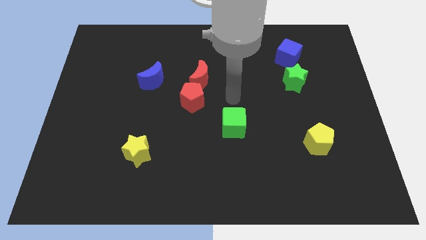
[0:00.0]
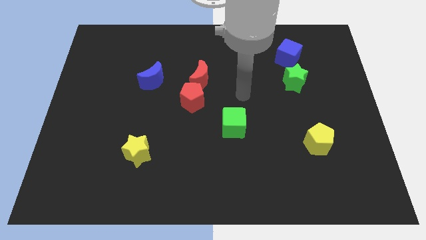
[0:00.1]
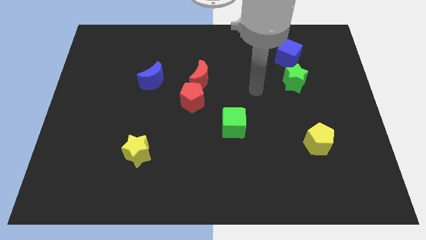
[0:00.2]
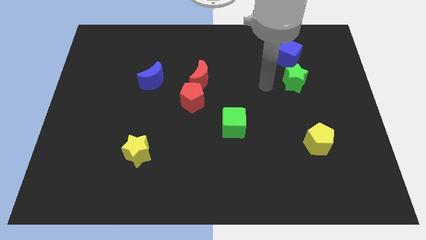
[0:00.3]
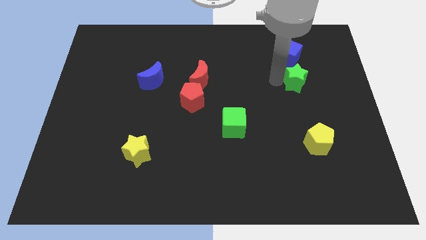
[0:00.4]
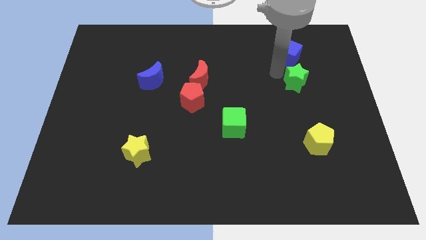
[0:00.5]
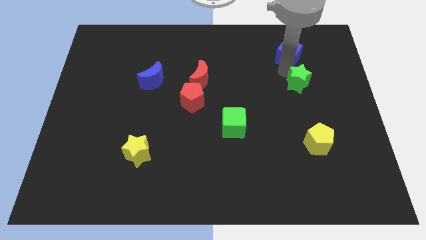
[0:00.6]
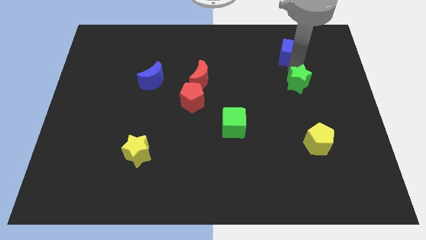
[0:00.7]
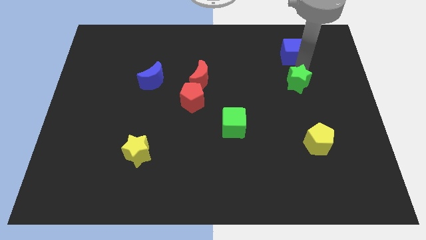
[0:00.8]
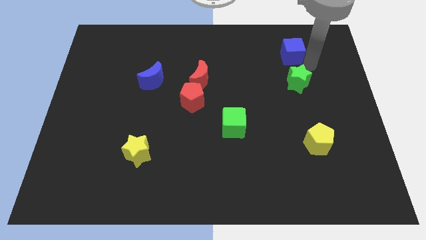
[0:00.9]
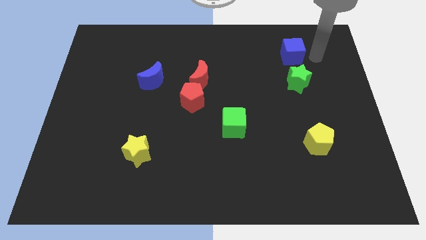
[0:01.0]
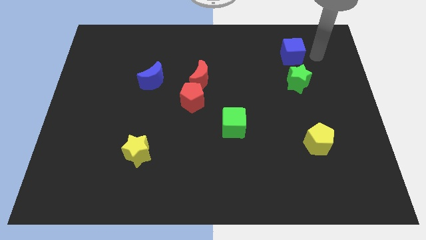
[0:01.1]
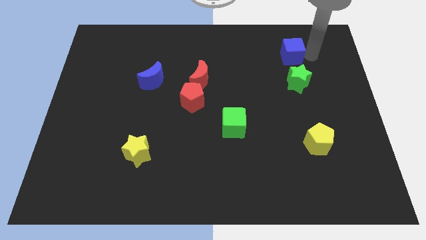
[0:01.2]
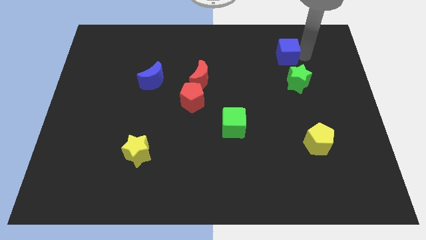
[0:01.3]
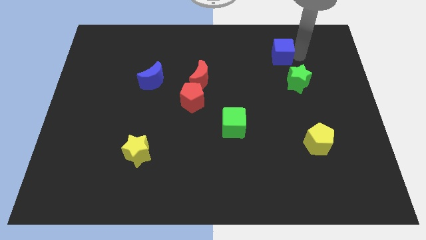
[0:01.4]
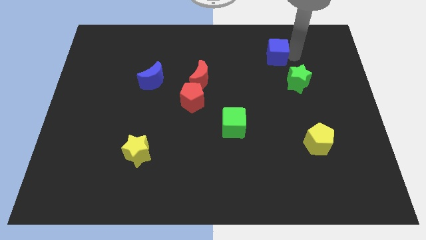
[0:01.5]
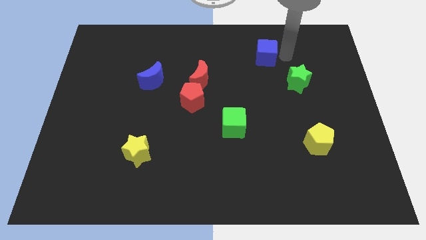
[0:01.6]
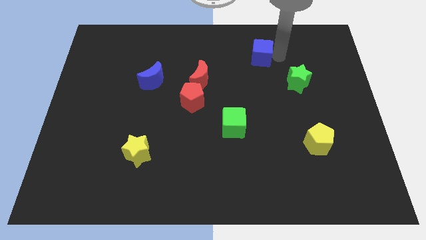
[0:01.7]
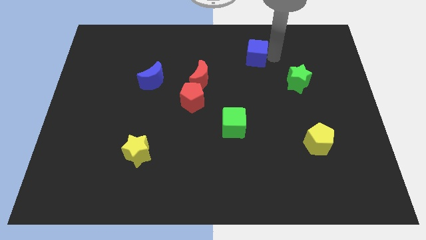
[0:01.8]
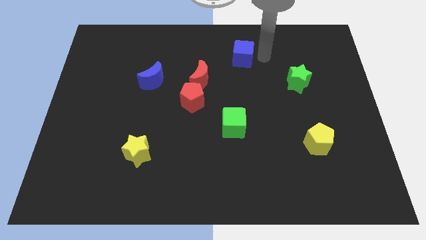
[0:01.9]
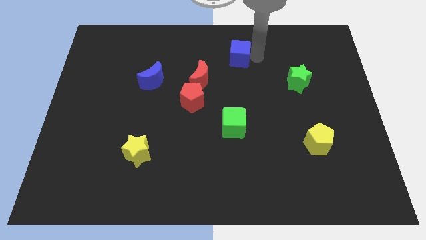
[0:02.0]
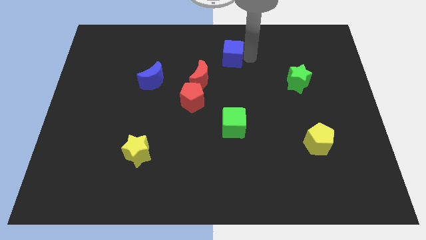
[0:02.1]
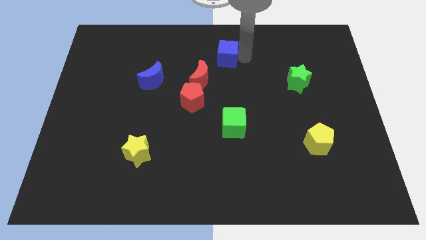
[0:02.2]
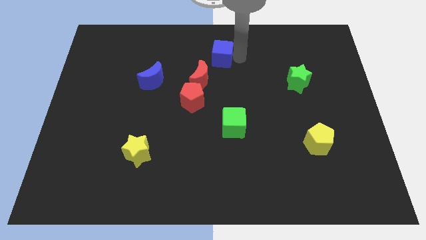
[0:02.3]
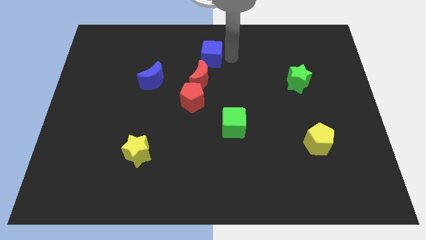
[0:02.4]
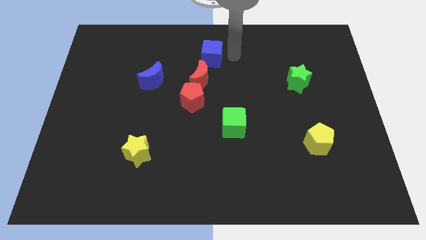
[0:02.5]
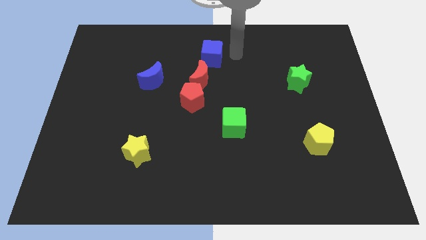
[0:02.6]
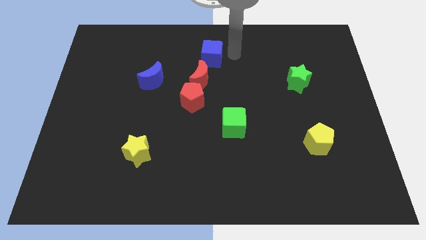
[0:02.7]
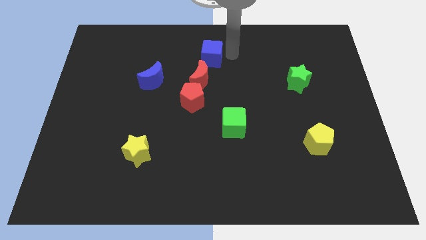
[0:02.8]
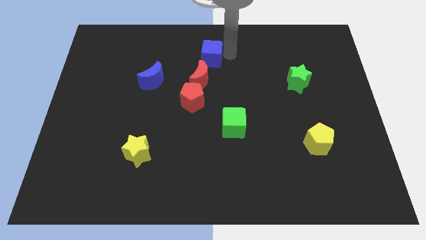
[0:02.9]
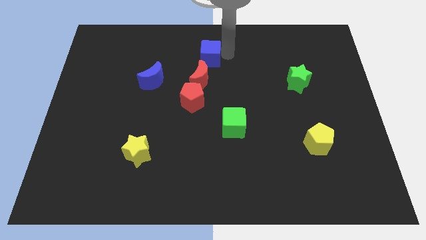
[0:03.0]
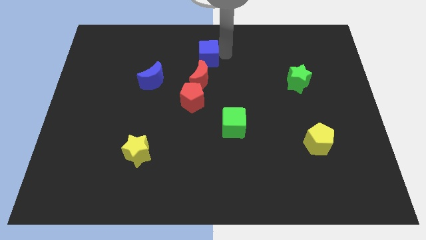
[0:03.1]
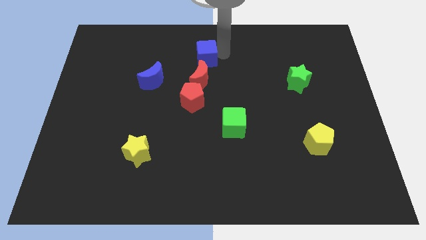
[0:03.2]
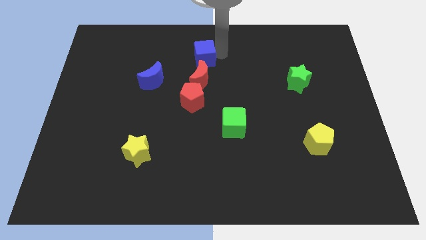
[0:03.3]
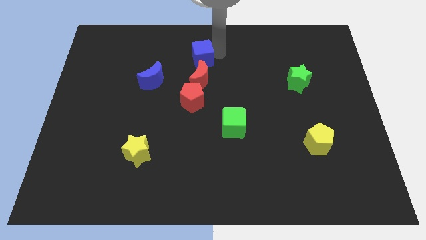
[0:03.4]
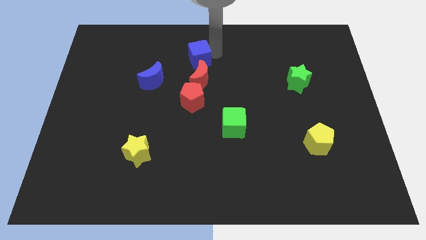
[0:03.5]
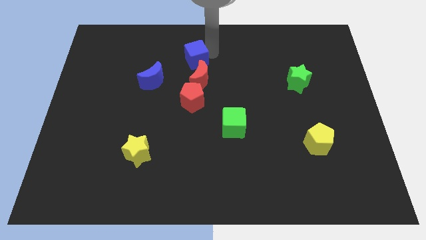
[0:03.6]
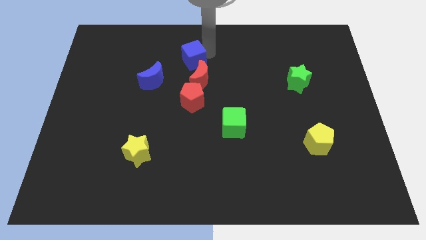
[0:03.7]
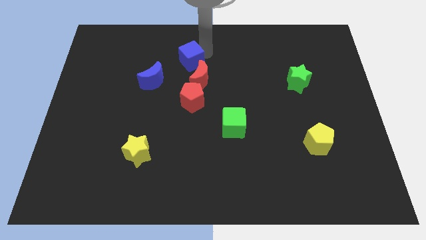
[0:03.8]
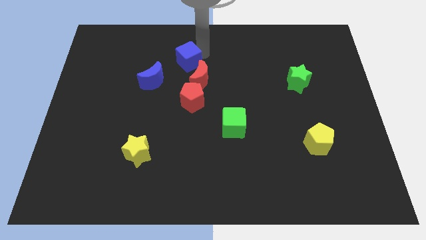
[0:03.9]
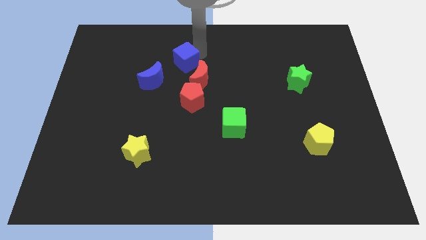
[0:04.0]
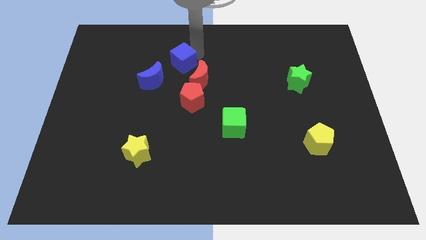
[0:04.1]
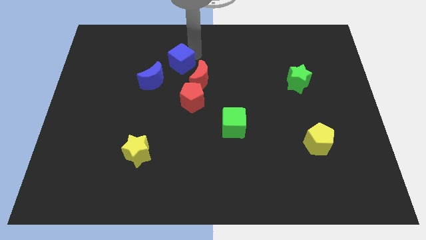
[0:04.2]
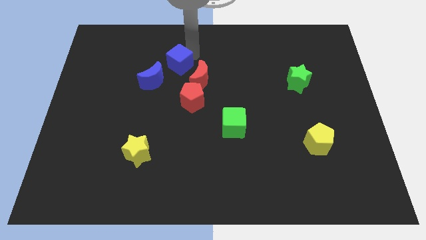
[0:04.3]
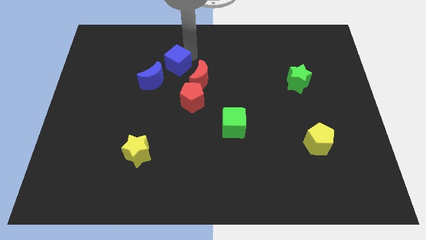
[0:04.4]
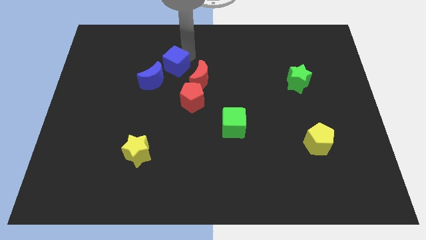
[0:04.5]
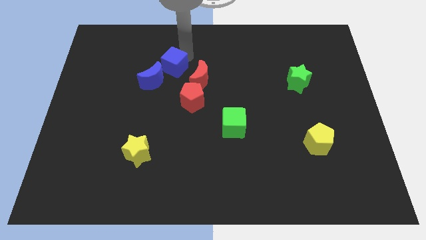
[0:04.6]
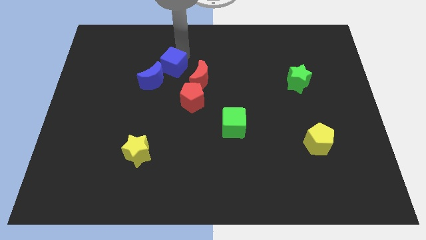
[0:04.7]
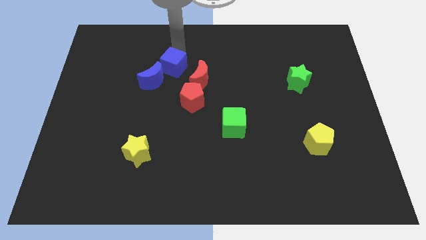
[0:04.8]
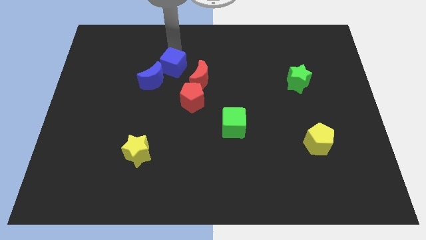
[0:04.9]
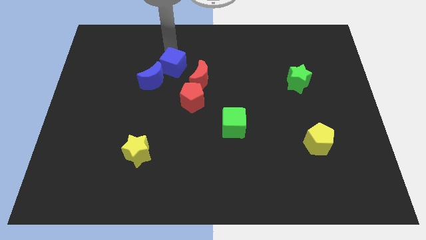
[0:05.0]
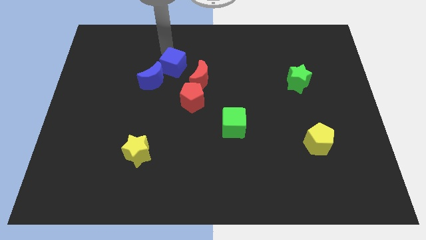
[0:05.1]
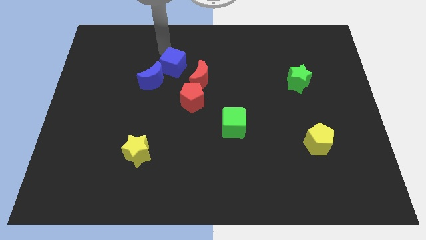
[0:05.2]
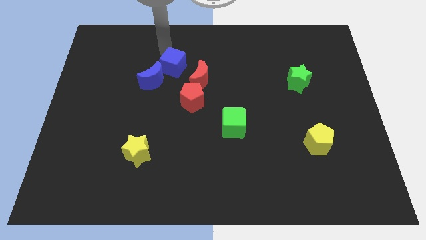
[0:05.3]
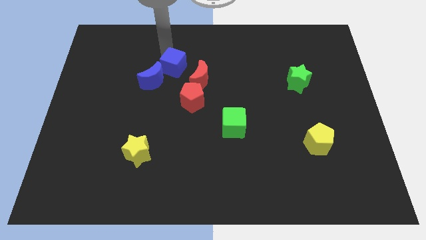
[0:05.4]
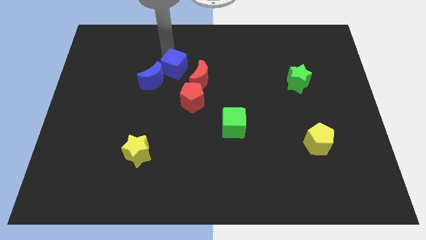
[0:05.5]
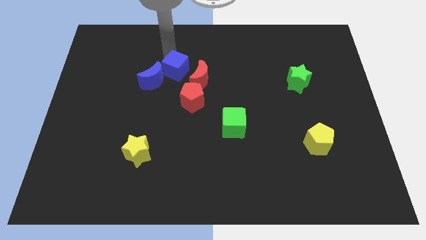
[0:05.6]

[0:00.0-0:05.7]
slide the blue cube diagonally up and to the left of the red pentagon

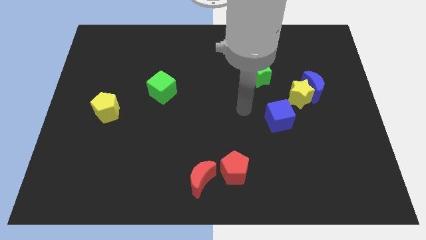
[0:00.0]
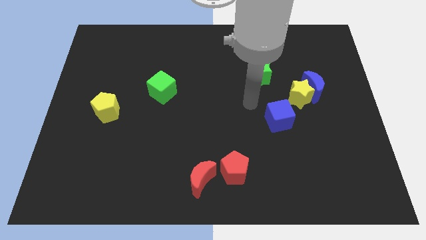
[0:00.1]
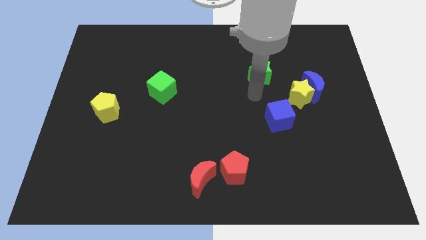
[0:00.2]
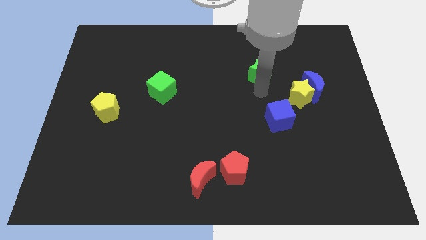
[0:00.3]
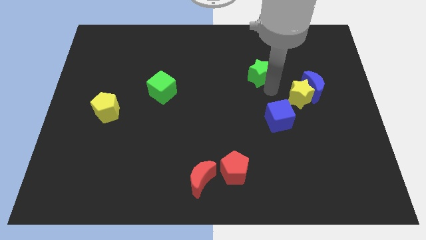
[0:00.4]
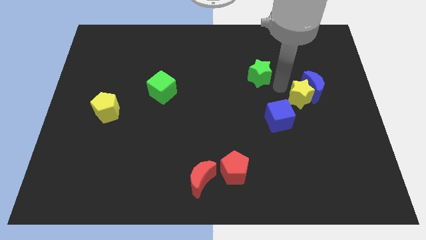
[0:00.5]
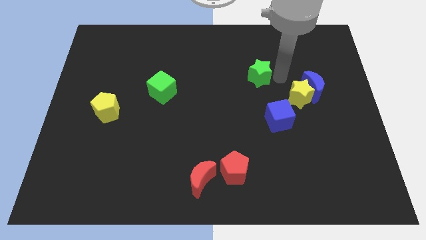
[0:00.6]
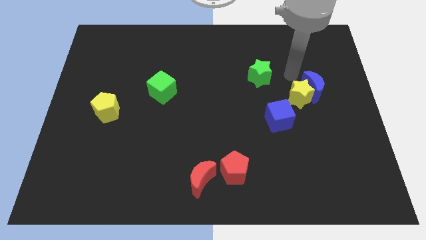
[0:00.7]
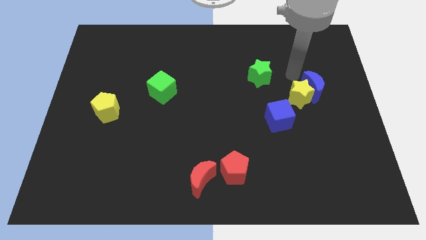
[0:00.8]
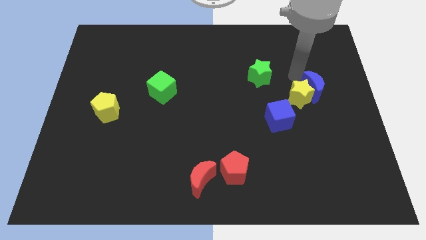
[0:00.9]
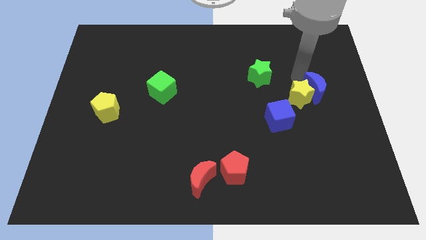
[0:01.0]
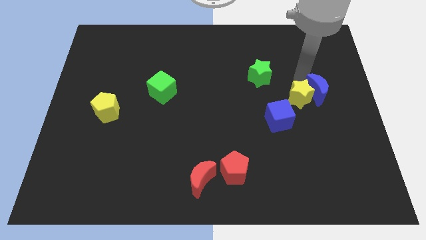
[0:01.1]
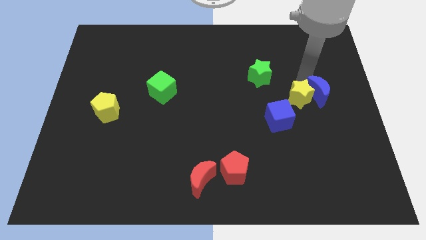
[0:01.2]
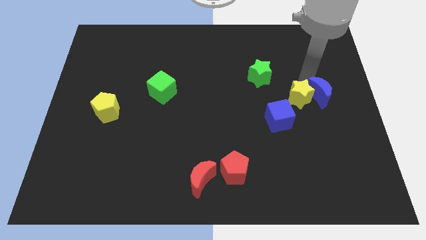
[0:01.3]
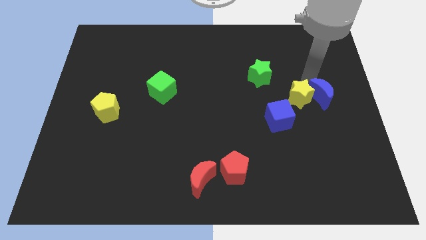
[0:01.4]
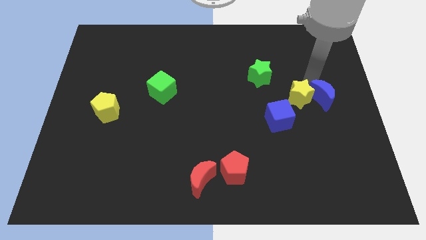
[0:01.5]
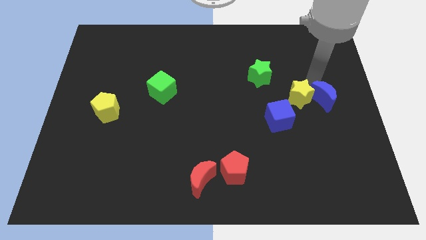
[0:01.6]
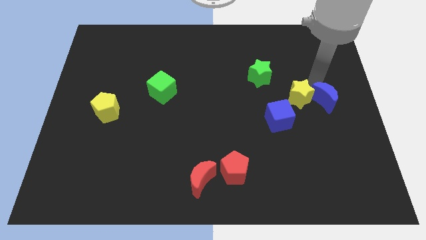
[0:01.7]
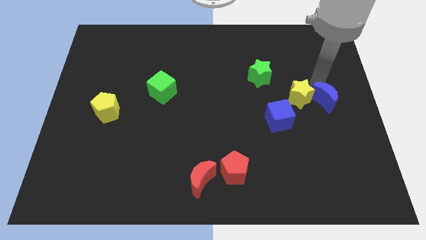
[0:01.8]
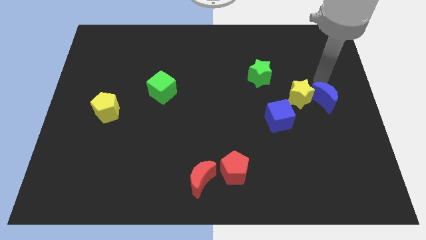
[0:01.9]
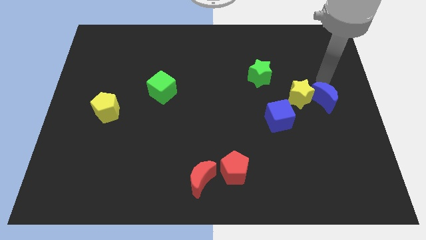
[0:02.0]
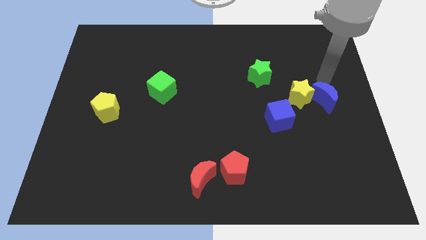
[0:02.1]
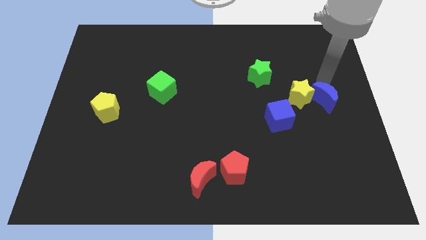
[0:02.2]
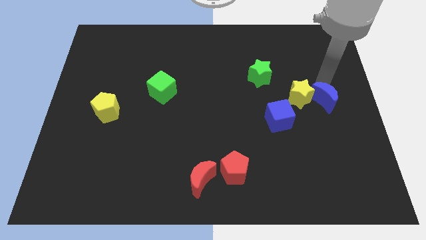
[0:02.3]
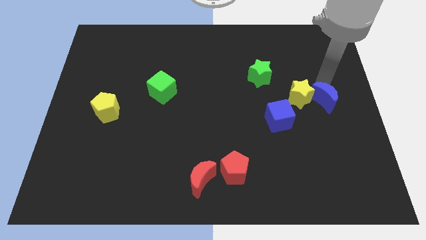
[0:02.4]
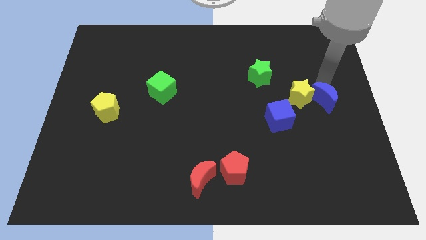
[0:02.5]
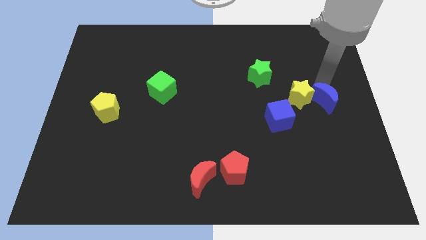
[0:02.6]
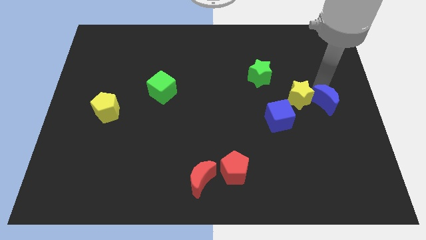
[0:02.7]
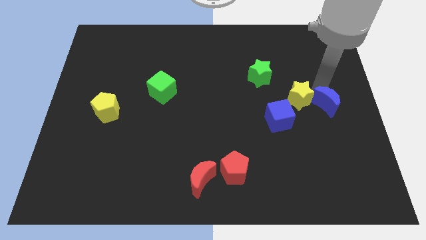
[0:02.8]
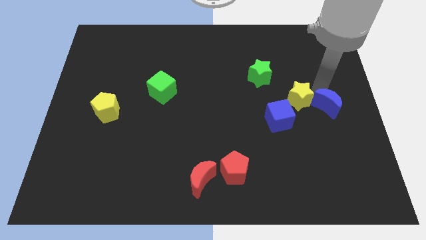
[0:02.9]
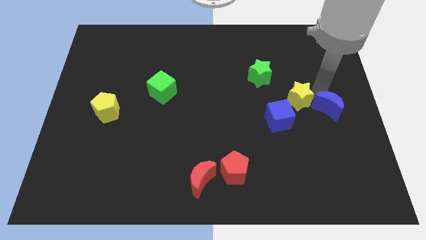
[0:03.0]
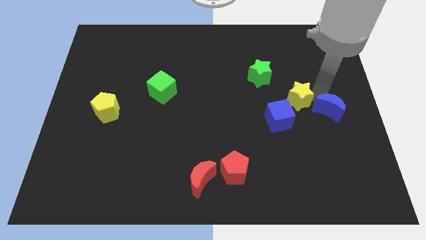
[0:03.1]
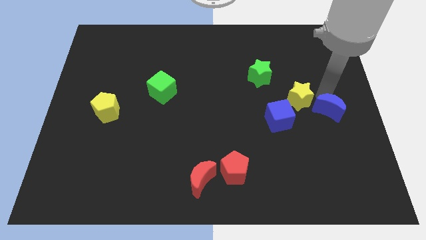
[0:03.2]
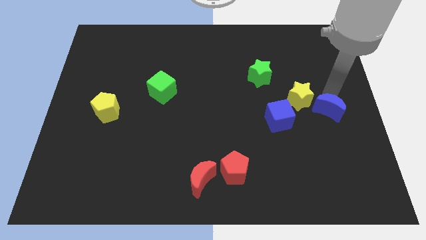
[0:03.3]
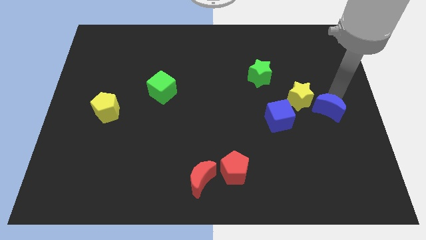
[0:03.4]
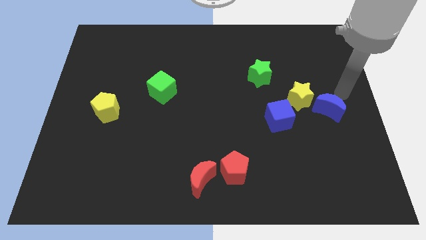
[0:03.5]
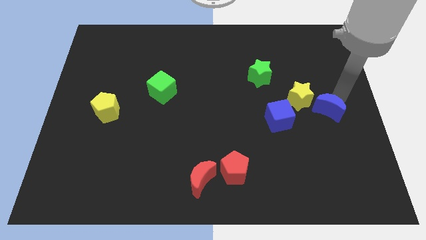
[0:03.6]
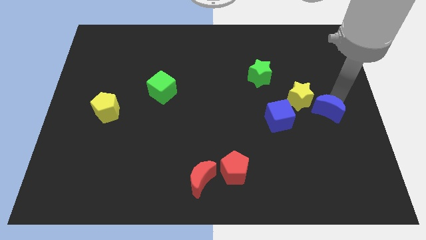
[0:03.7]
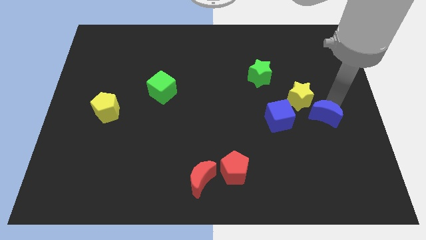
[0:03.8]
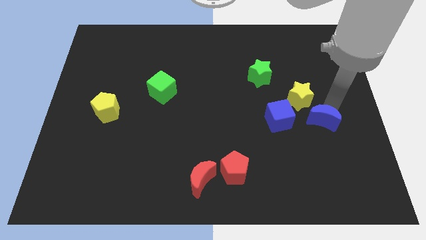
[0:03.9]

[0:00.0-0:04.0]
put the blue moon to the bottom of the yellow star
